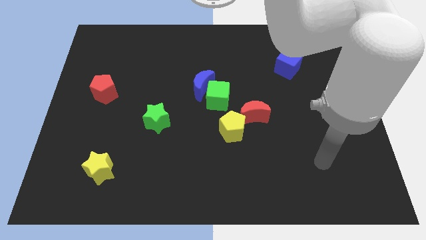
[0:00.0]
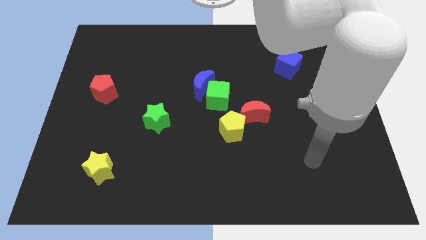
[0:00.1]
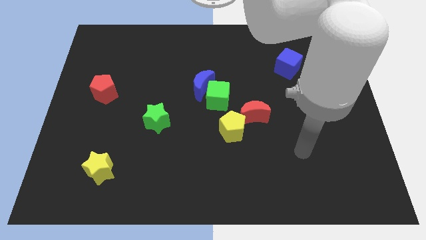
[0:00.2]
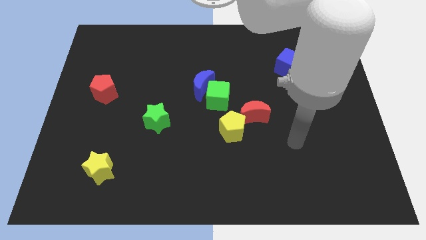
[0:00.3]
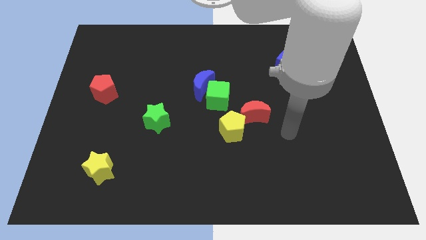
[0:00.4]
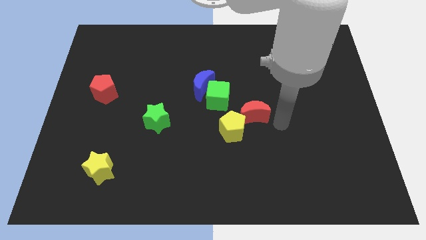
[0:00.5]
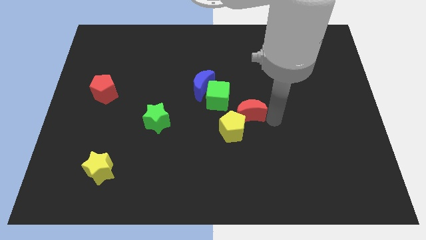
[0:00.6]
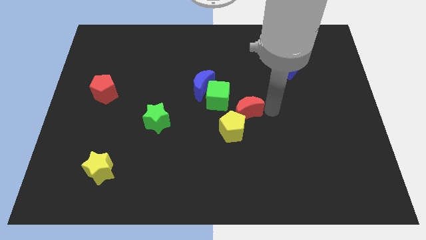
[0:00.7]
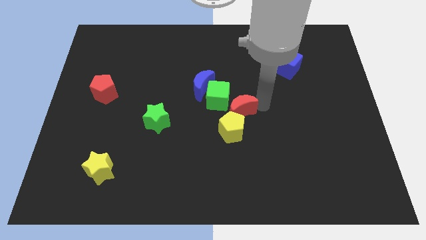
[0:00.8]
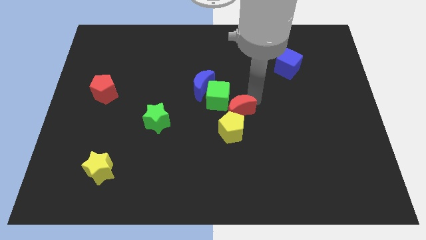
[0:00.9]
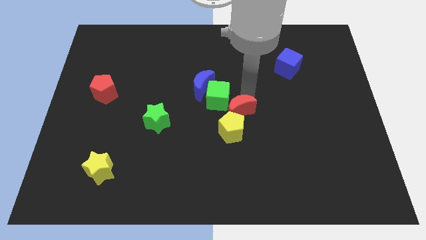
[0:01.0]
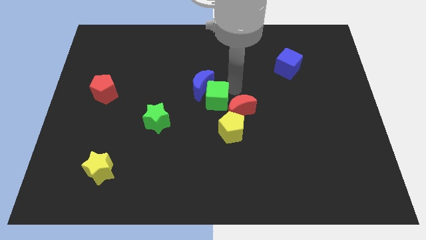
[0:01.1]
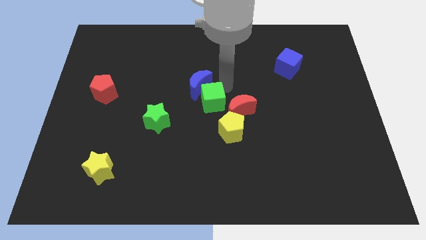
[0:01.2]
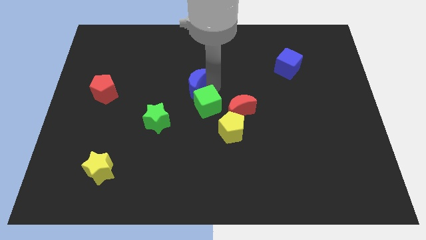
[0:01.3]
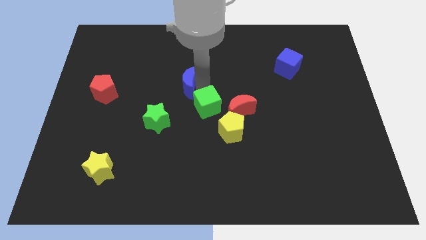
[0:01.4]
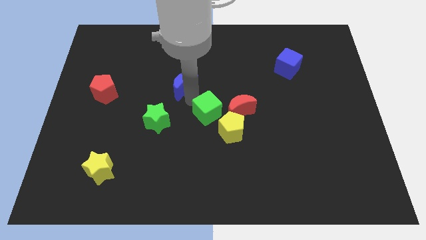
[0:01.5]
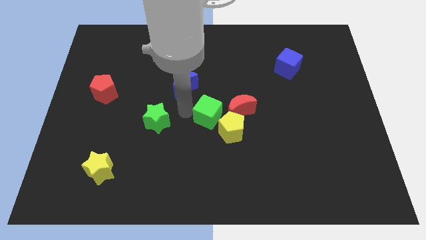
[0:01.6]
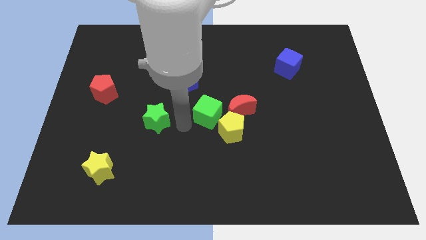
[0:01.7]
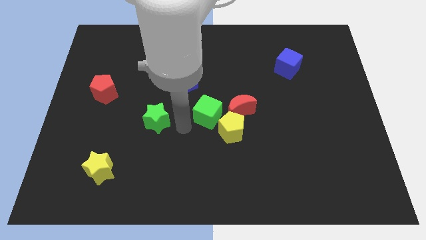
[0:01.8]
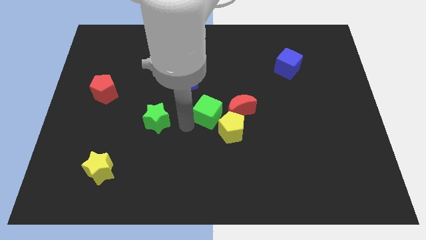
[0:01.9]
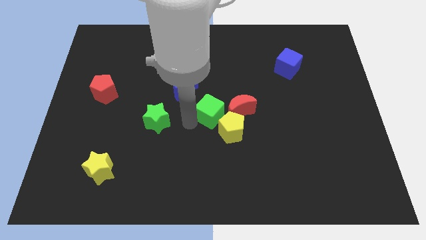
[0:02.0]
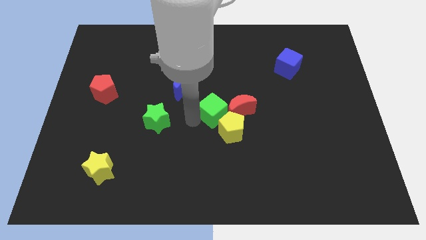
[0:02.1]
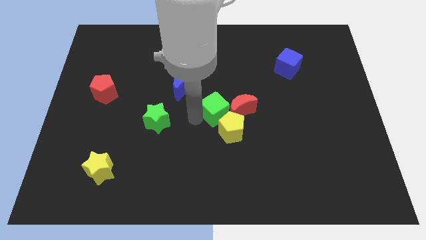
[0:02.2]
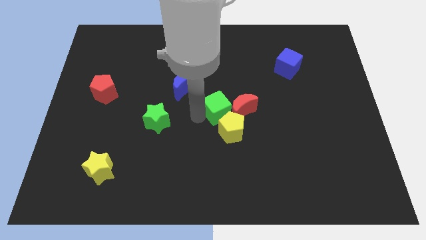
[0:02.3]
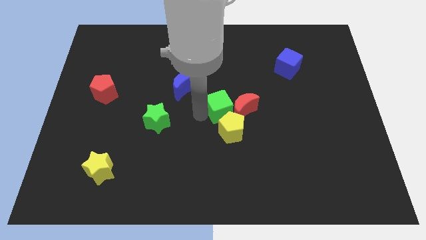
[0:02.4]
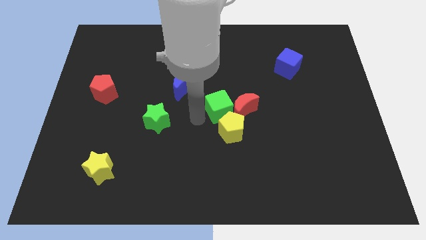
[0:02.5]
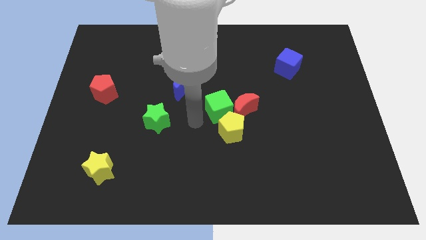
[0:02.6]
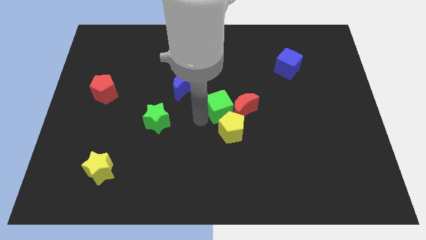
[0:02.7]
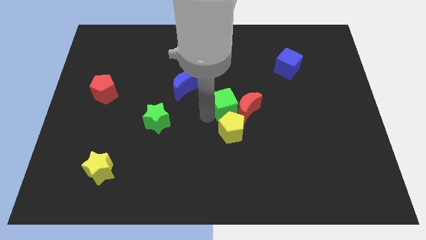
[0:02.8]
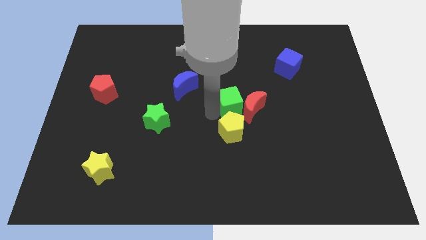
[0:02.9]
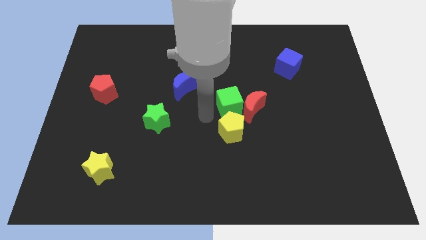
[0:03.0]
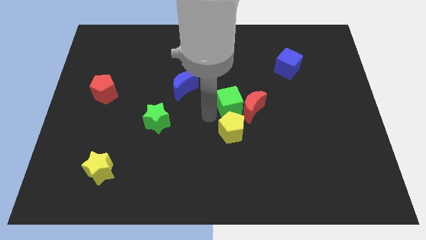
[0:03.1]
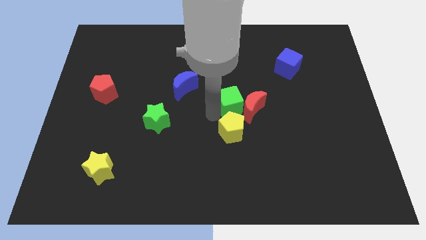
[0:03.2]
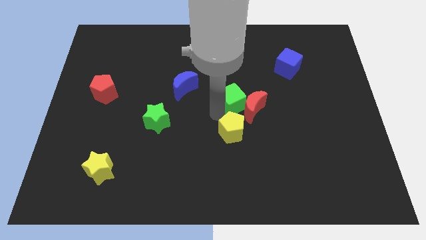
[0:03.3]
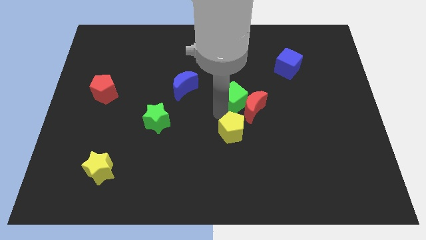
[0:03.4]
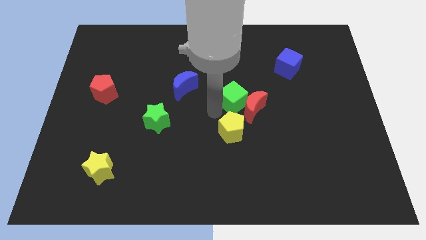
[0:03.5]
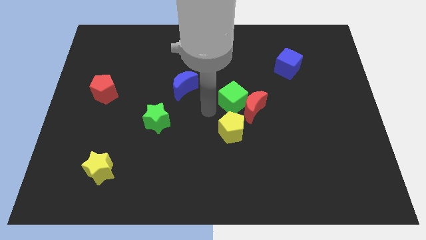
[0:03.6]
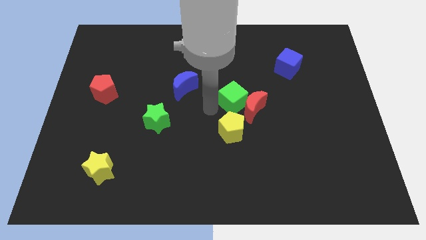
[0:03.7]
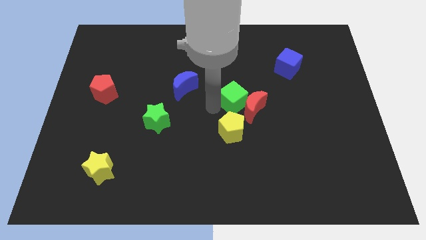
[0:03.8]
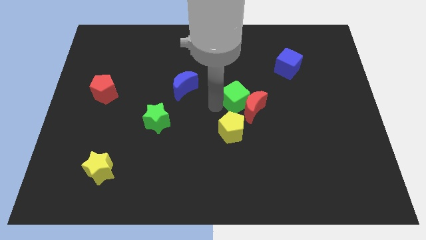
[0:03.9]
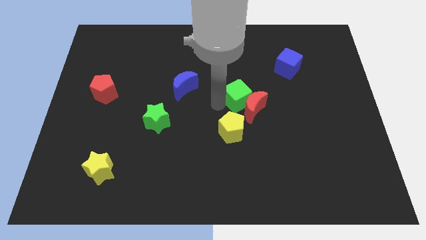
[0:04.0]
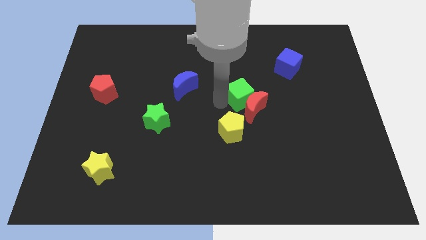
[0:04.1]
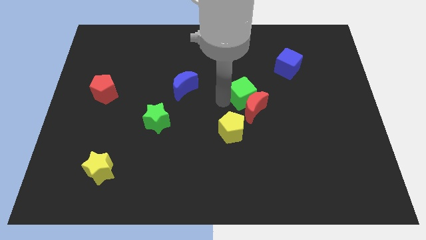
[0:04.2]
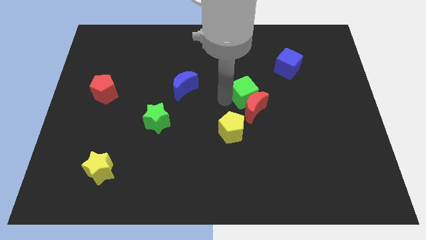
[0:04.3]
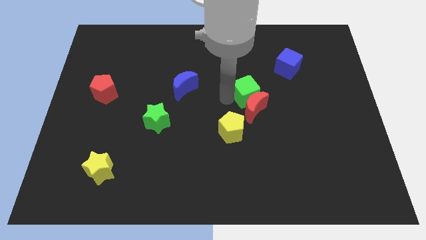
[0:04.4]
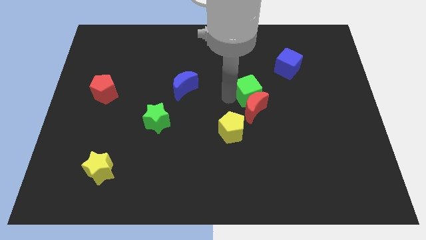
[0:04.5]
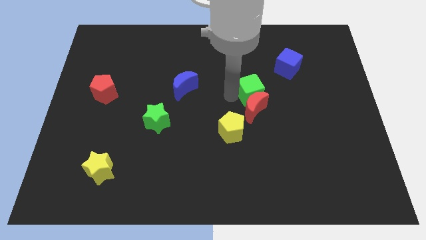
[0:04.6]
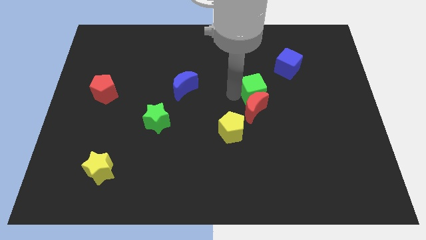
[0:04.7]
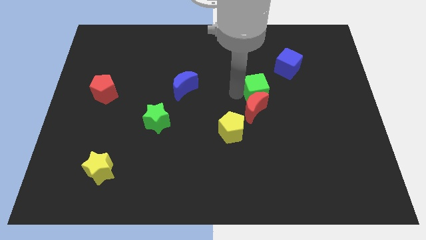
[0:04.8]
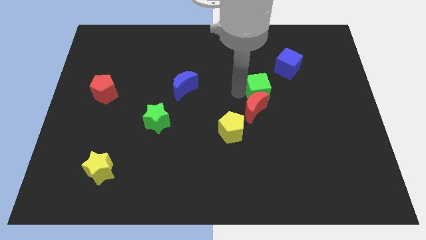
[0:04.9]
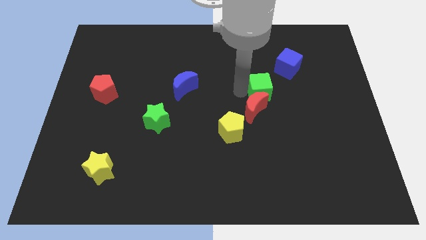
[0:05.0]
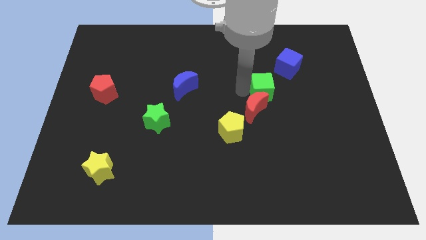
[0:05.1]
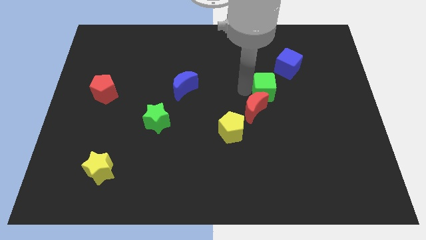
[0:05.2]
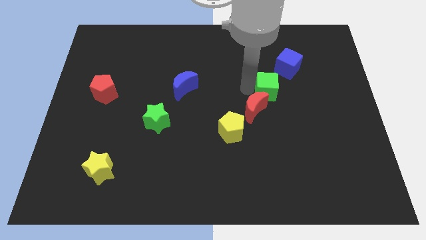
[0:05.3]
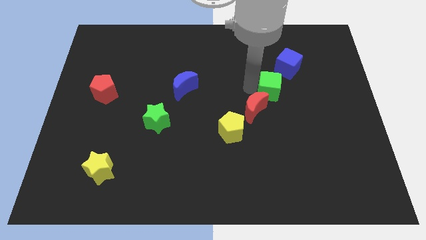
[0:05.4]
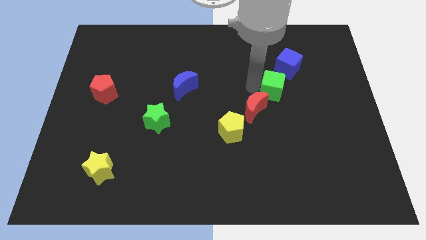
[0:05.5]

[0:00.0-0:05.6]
put the green cube to the bottom side of the blue cube

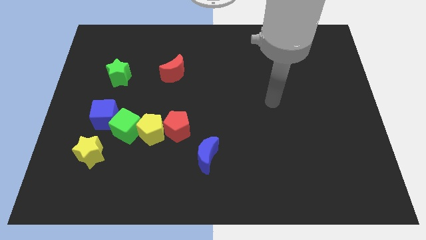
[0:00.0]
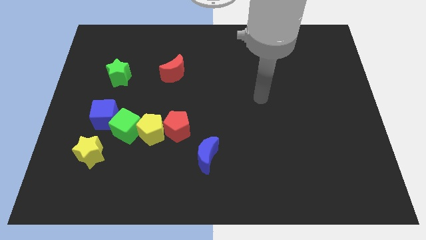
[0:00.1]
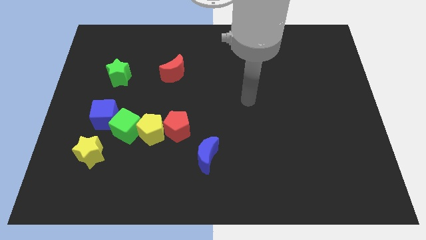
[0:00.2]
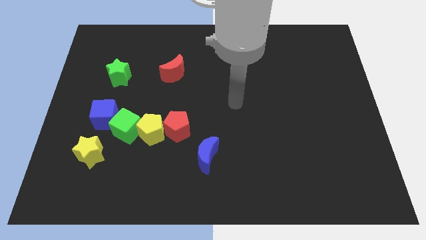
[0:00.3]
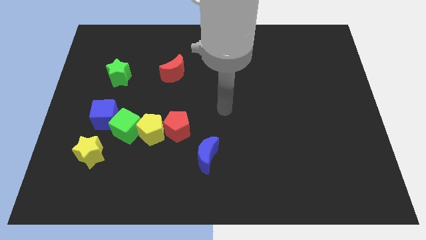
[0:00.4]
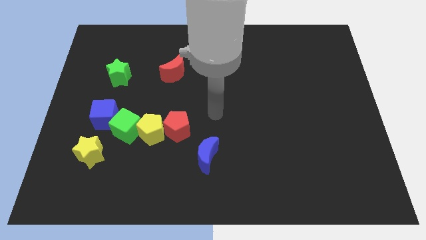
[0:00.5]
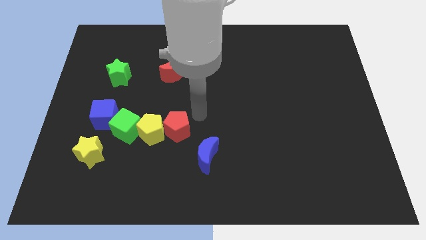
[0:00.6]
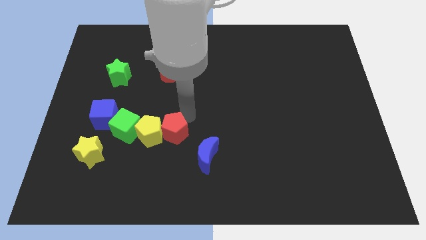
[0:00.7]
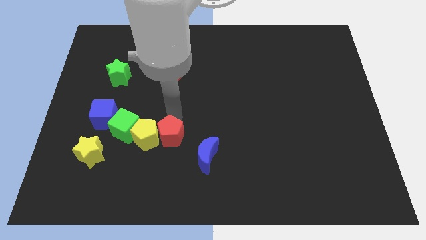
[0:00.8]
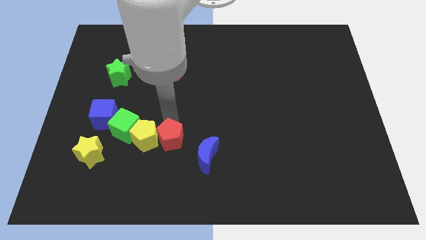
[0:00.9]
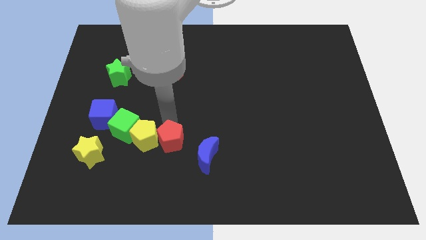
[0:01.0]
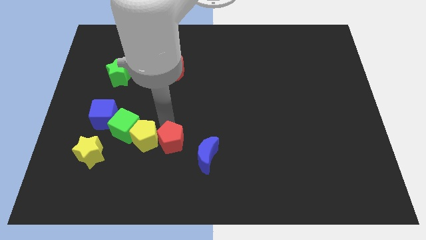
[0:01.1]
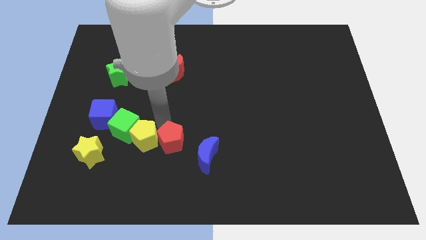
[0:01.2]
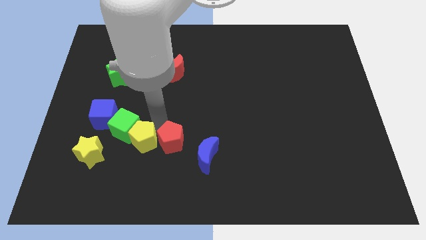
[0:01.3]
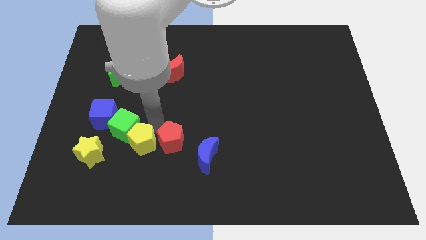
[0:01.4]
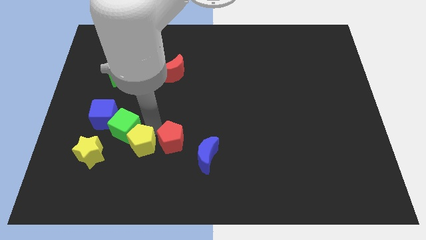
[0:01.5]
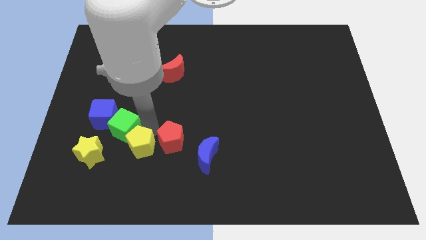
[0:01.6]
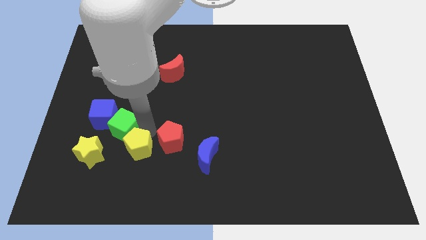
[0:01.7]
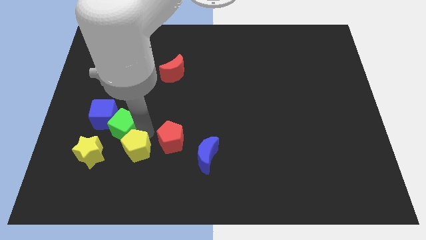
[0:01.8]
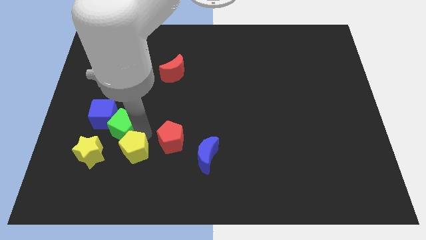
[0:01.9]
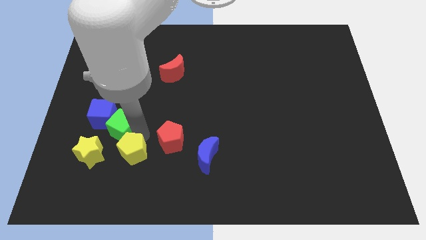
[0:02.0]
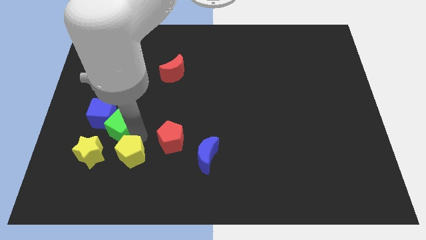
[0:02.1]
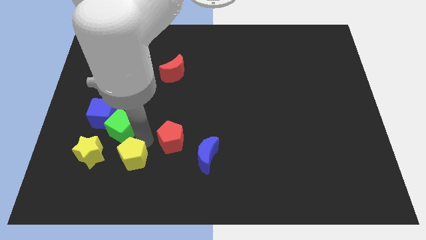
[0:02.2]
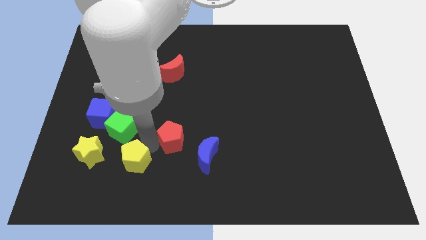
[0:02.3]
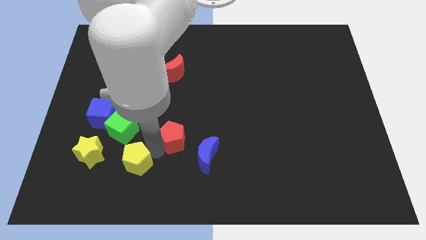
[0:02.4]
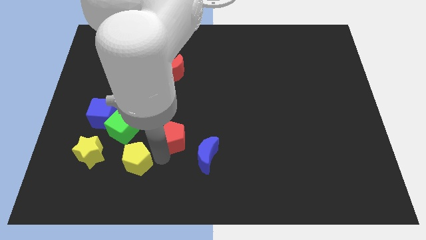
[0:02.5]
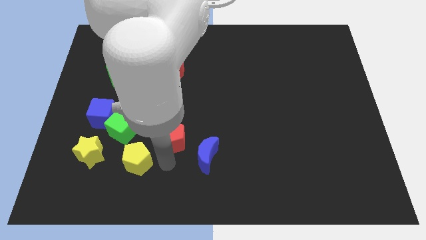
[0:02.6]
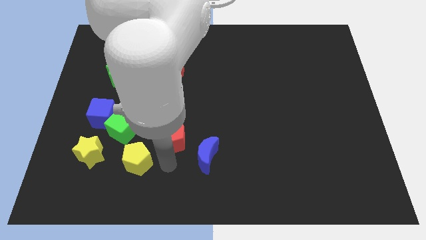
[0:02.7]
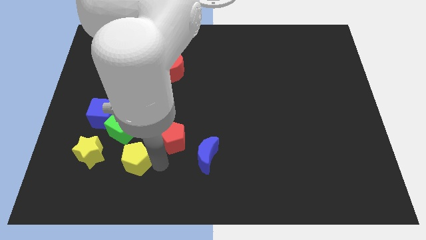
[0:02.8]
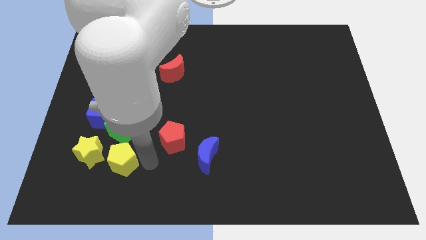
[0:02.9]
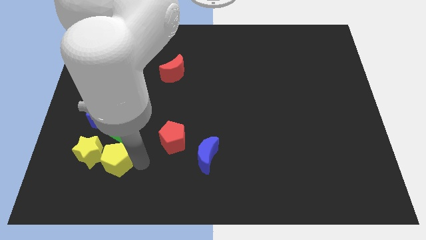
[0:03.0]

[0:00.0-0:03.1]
move the yellow pentagon to the bottom side of the blue cube
